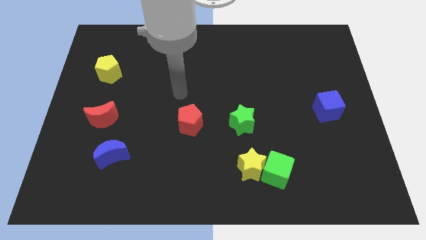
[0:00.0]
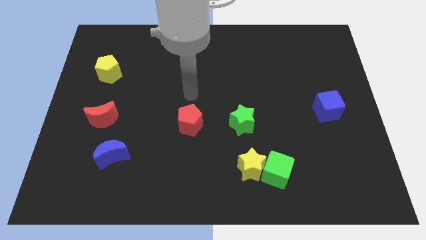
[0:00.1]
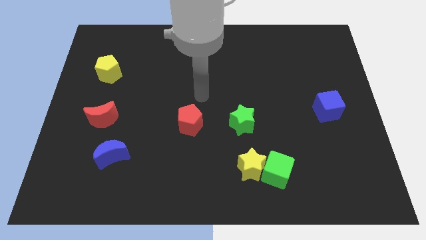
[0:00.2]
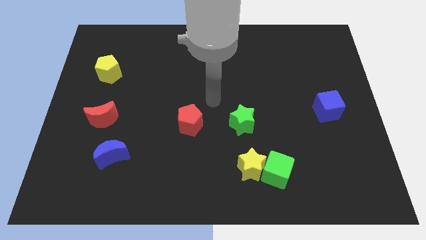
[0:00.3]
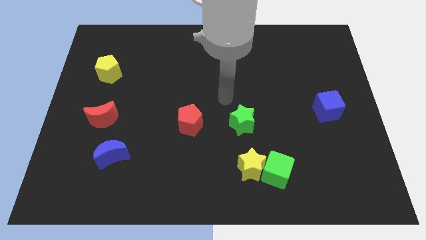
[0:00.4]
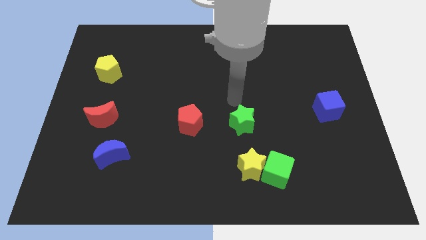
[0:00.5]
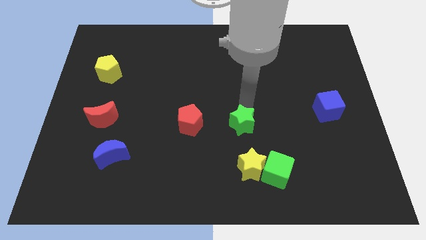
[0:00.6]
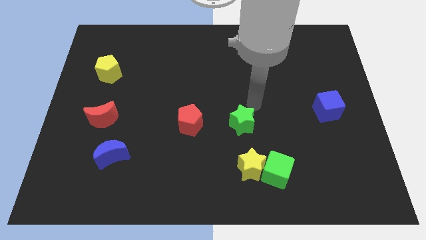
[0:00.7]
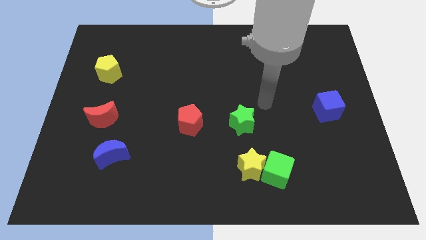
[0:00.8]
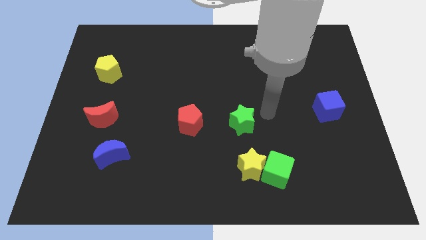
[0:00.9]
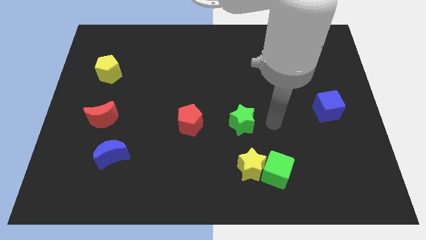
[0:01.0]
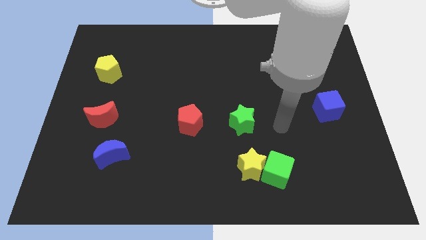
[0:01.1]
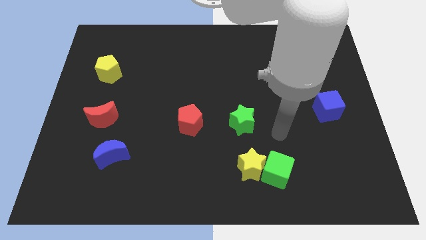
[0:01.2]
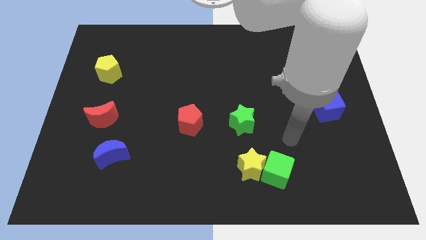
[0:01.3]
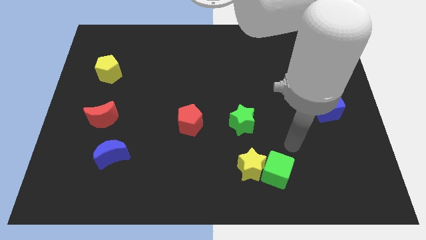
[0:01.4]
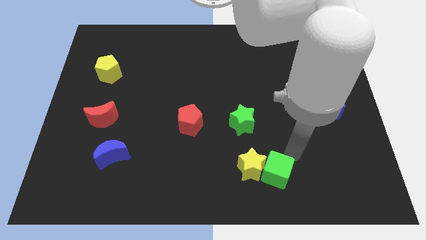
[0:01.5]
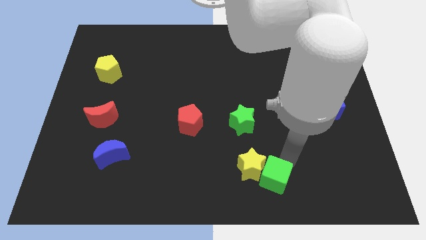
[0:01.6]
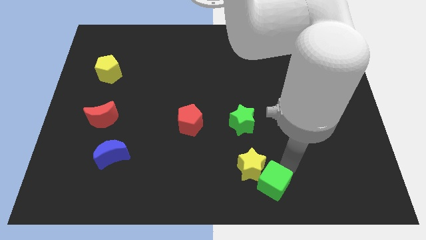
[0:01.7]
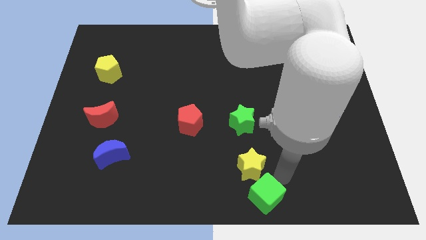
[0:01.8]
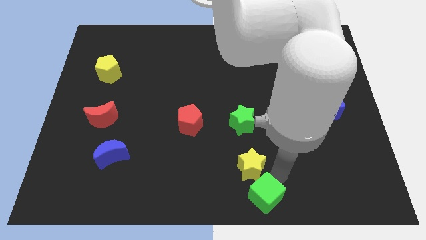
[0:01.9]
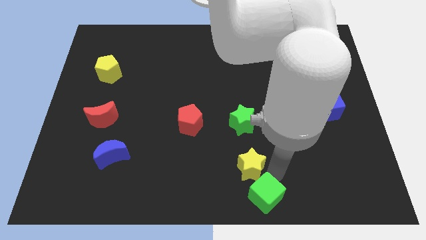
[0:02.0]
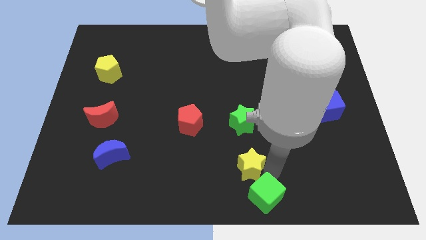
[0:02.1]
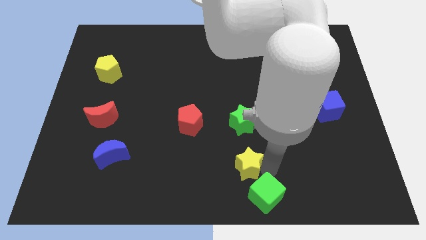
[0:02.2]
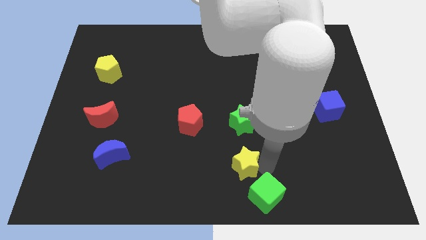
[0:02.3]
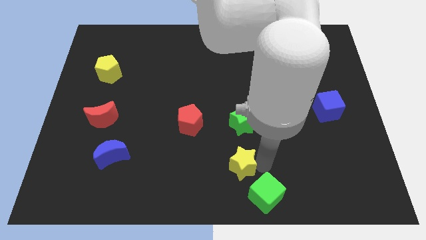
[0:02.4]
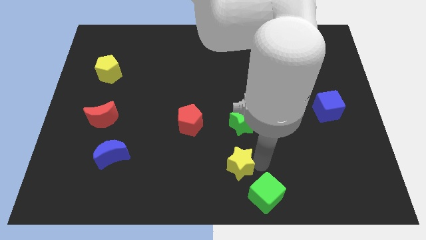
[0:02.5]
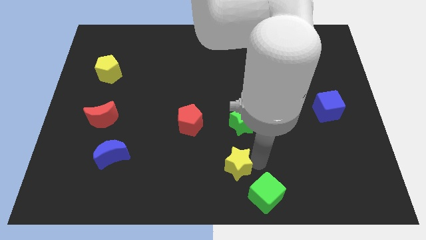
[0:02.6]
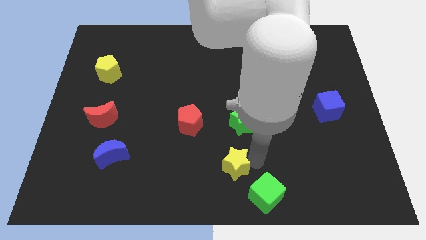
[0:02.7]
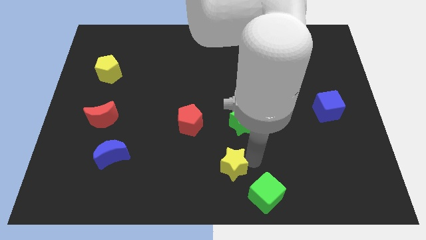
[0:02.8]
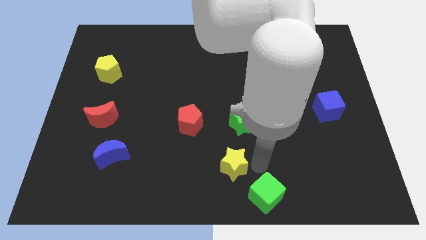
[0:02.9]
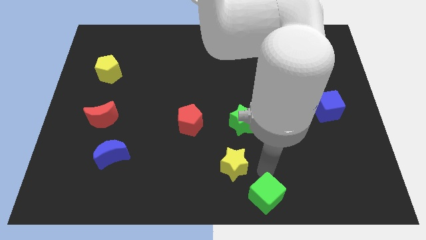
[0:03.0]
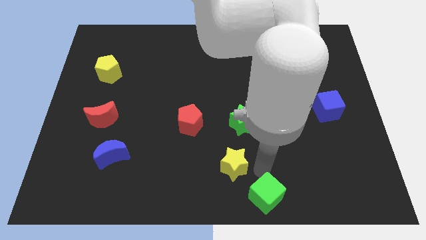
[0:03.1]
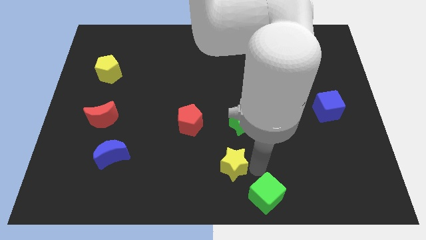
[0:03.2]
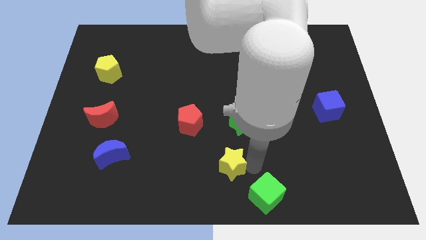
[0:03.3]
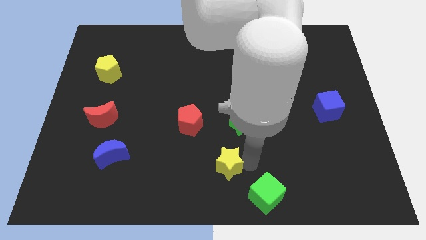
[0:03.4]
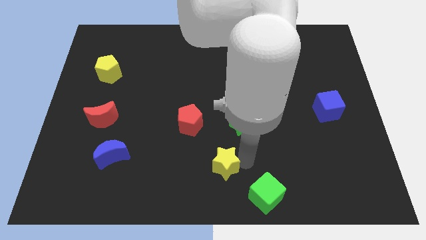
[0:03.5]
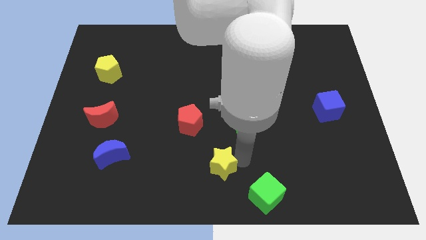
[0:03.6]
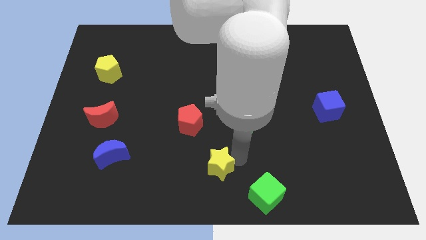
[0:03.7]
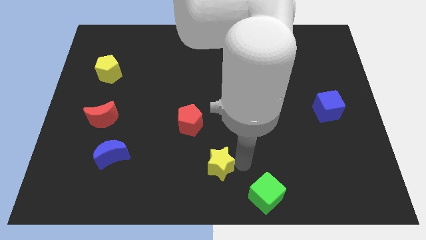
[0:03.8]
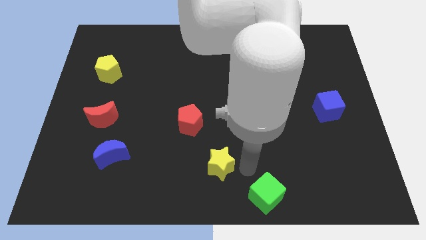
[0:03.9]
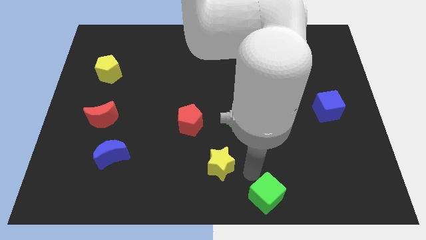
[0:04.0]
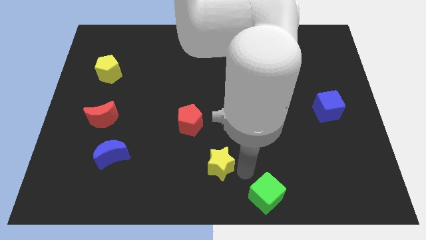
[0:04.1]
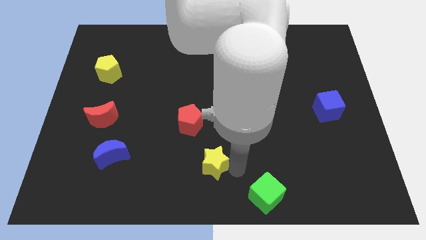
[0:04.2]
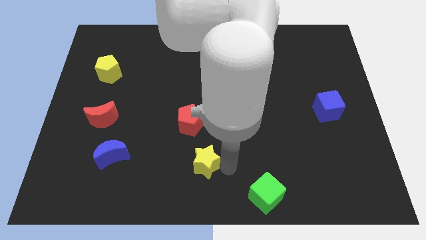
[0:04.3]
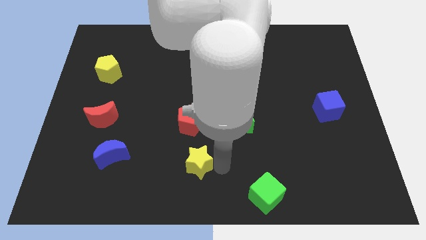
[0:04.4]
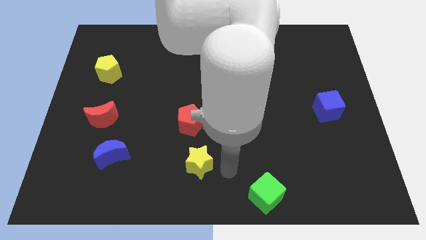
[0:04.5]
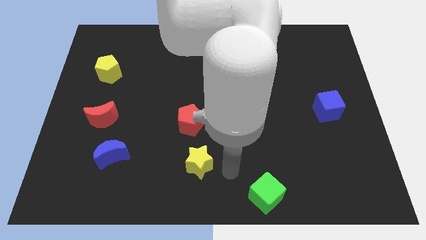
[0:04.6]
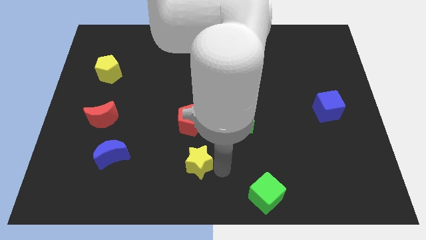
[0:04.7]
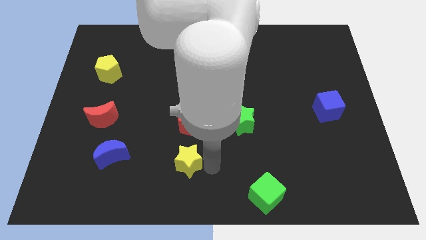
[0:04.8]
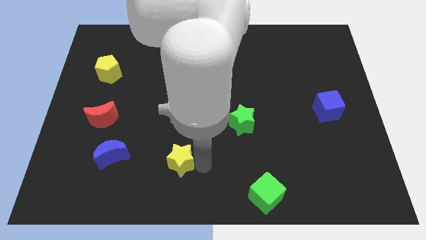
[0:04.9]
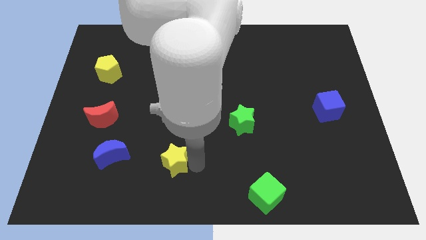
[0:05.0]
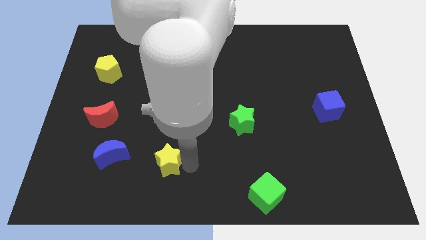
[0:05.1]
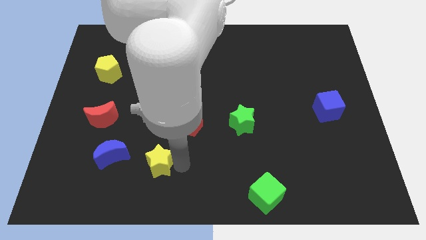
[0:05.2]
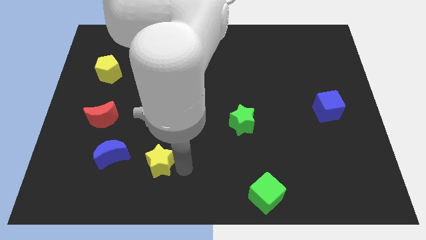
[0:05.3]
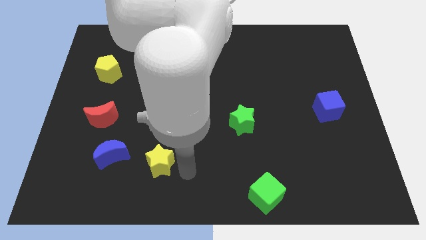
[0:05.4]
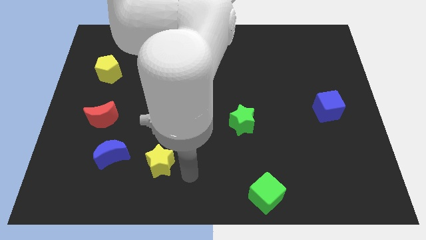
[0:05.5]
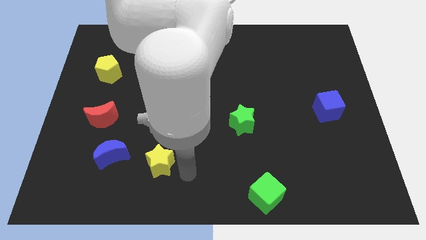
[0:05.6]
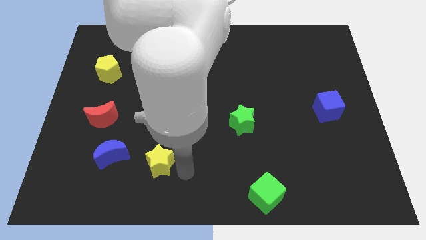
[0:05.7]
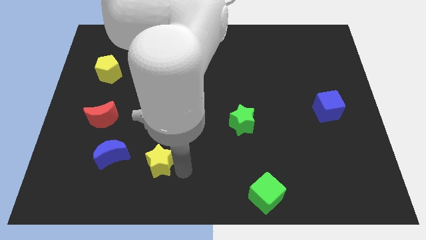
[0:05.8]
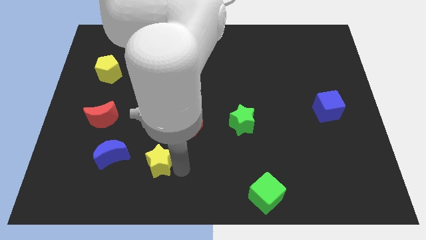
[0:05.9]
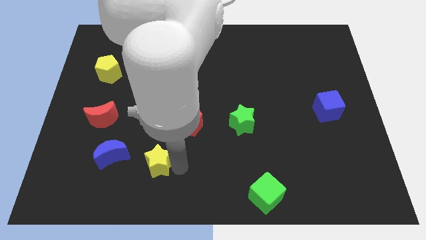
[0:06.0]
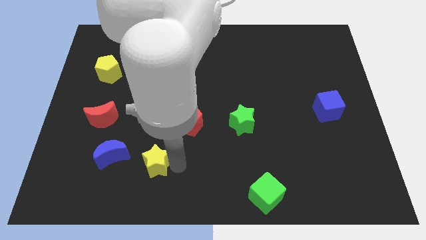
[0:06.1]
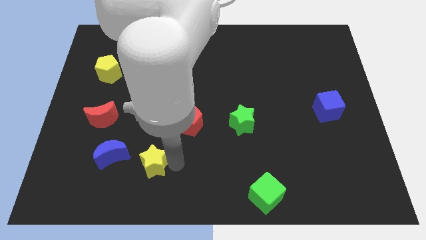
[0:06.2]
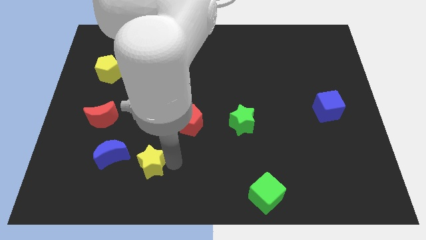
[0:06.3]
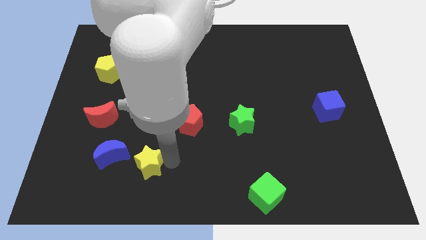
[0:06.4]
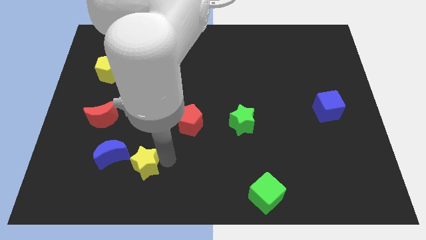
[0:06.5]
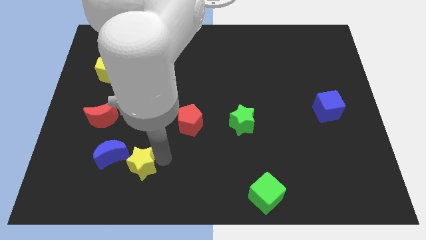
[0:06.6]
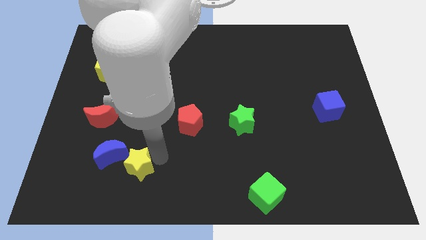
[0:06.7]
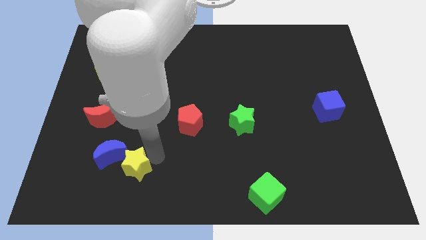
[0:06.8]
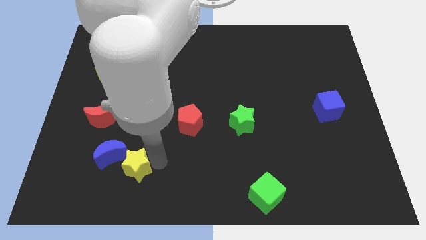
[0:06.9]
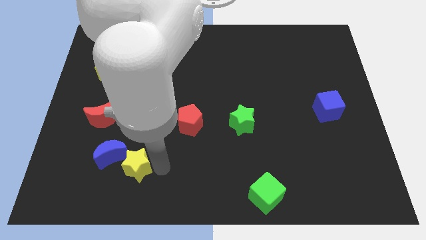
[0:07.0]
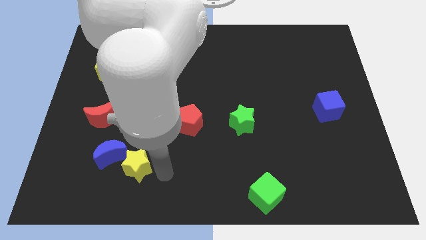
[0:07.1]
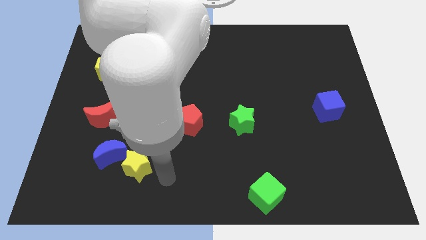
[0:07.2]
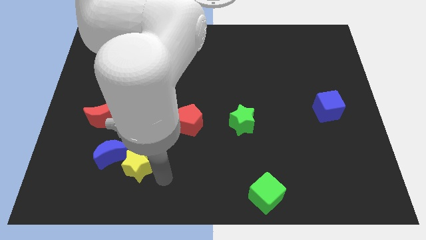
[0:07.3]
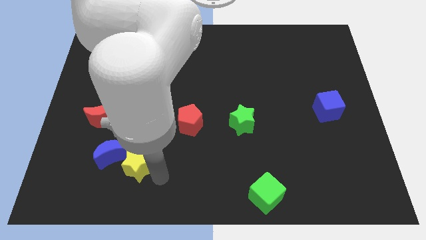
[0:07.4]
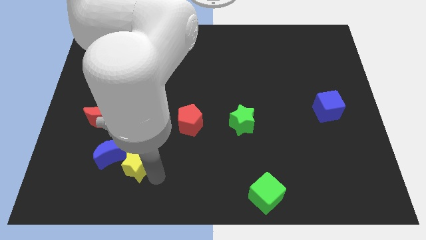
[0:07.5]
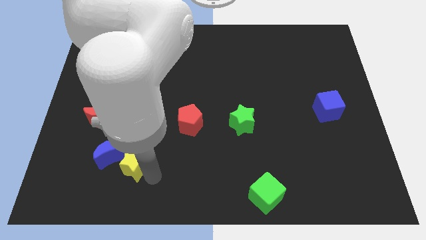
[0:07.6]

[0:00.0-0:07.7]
push the yellow star next to the blue moon
